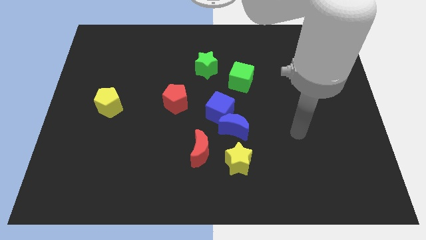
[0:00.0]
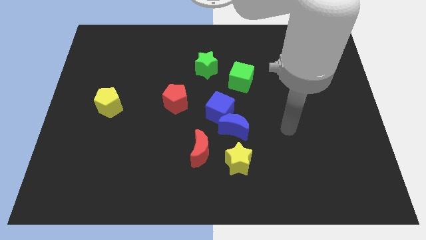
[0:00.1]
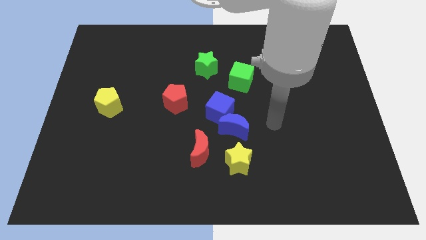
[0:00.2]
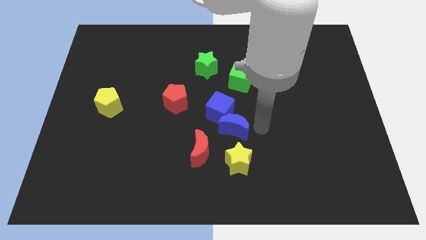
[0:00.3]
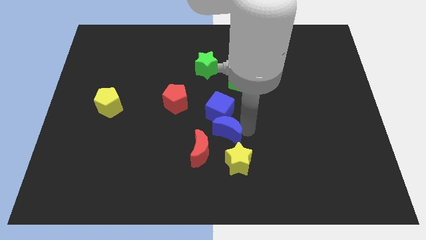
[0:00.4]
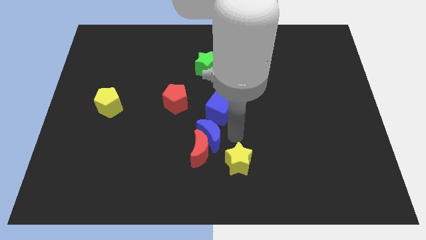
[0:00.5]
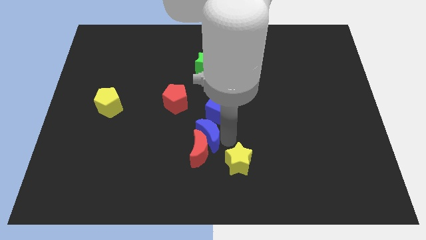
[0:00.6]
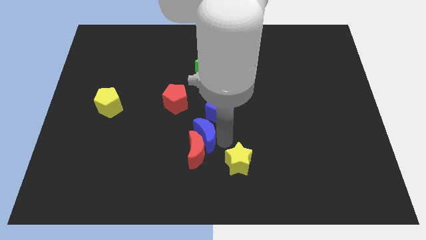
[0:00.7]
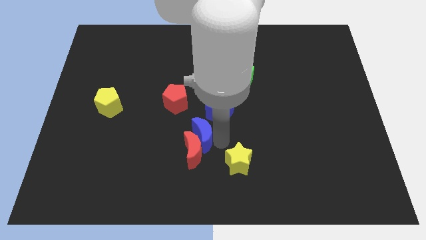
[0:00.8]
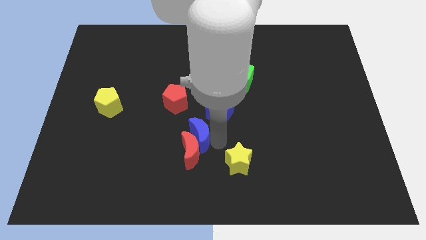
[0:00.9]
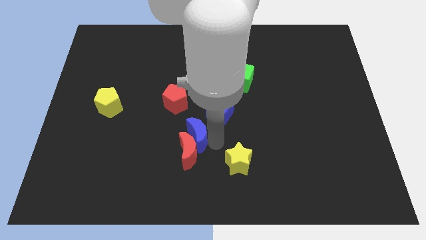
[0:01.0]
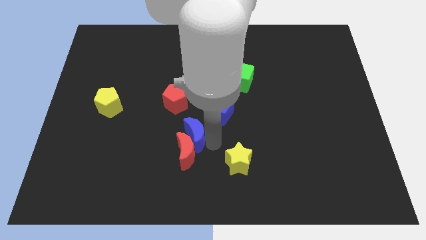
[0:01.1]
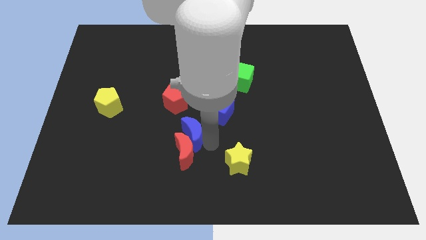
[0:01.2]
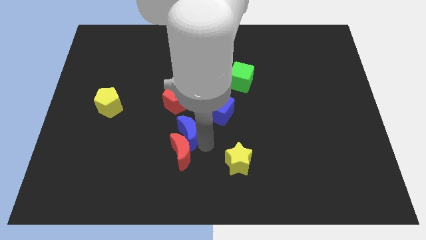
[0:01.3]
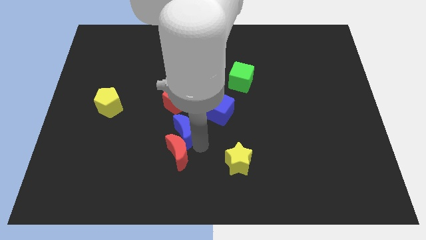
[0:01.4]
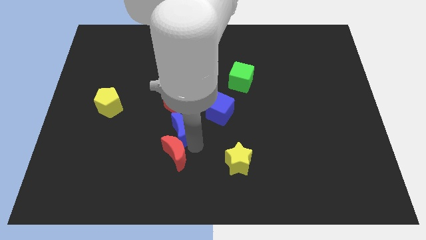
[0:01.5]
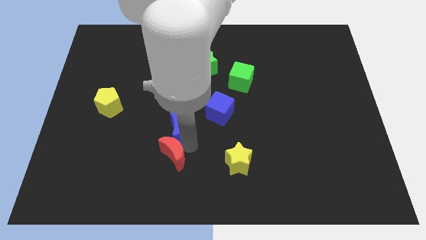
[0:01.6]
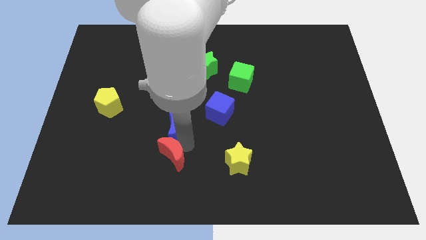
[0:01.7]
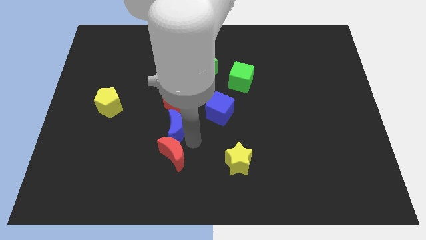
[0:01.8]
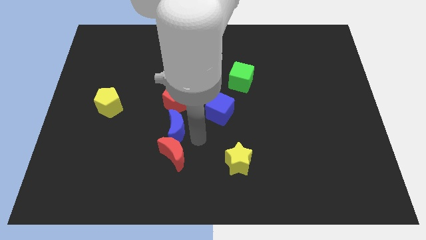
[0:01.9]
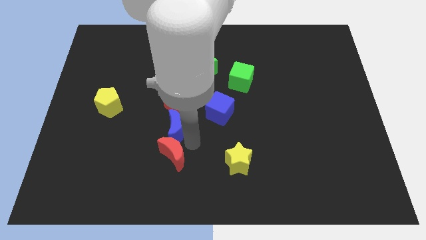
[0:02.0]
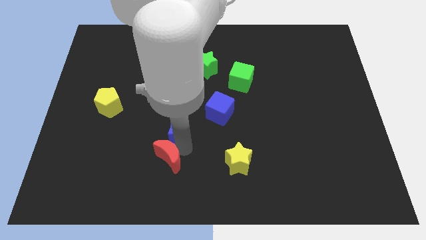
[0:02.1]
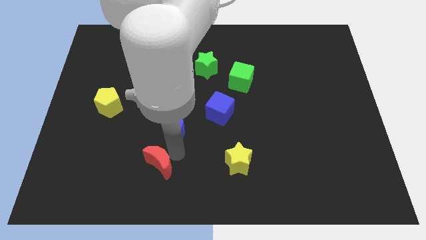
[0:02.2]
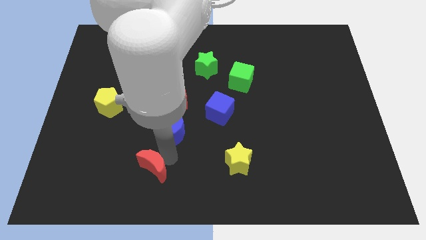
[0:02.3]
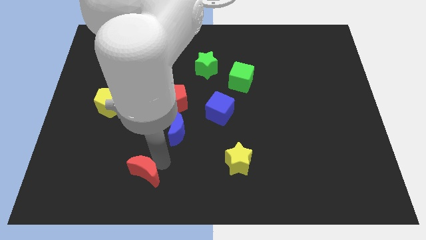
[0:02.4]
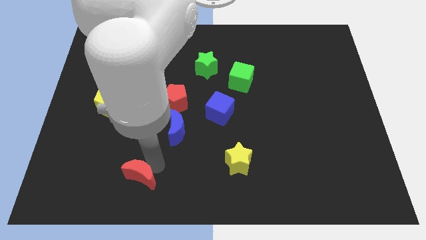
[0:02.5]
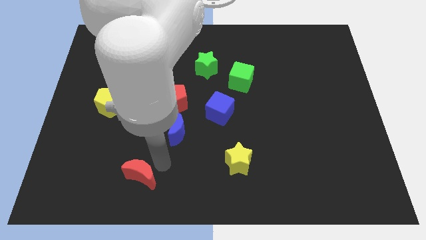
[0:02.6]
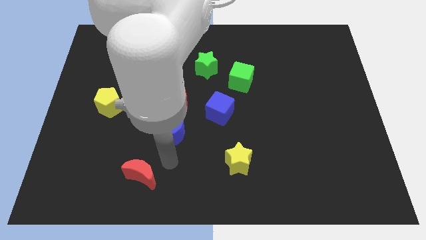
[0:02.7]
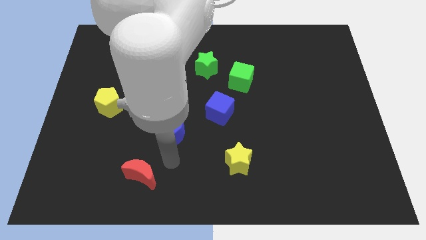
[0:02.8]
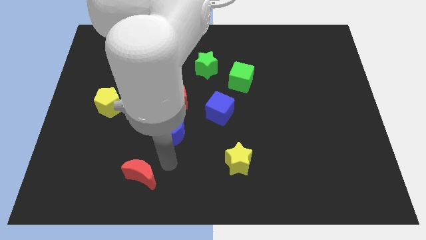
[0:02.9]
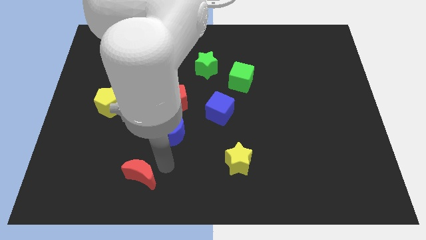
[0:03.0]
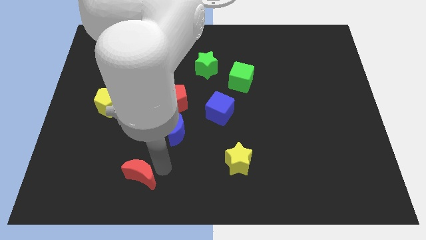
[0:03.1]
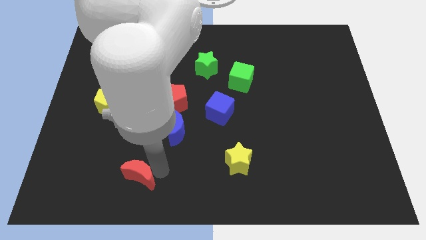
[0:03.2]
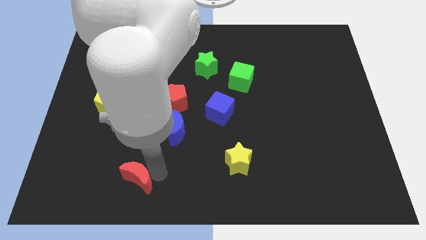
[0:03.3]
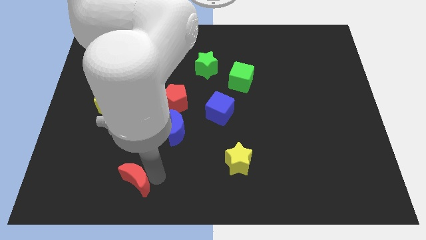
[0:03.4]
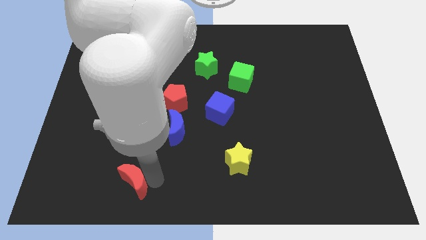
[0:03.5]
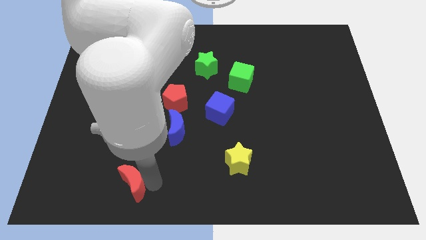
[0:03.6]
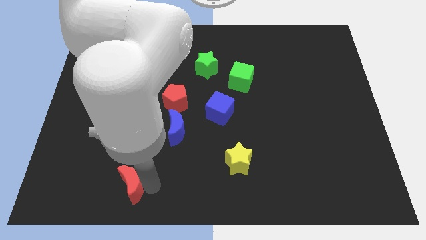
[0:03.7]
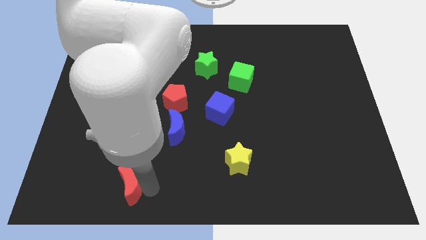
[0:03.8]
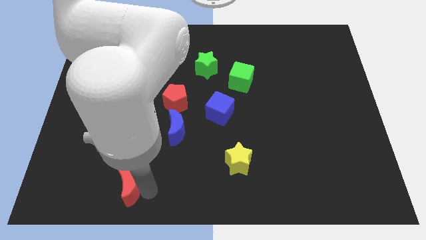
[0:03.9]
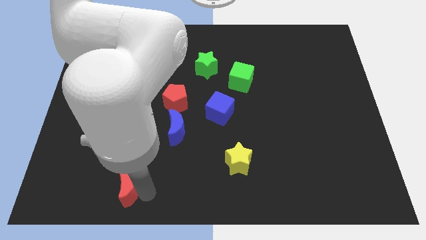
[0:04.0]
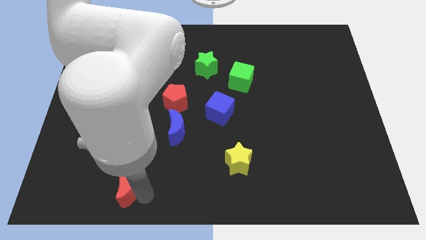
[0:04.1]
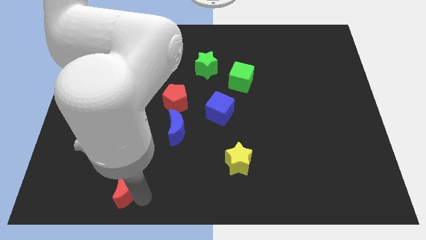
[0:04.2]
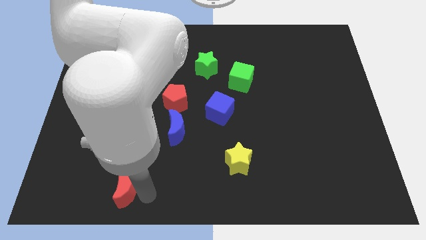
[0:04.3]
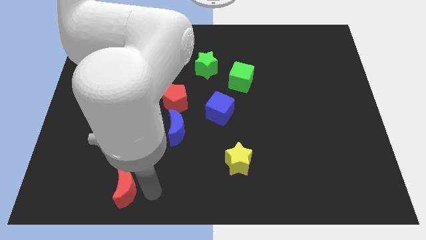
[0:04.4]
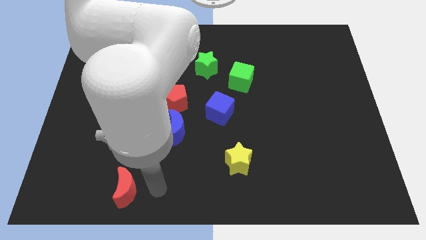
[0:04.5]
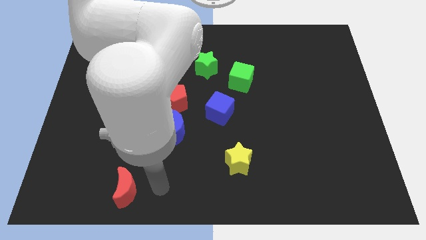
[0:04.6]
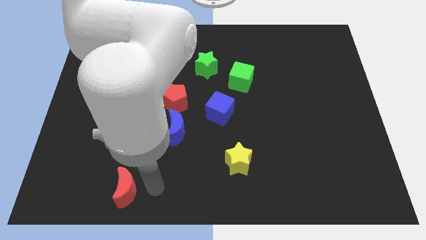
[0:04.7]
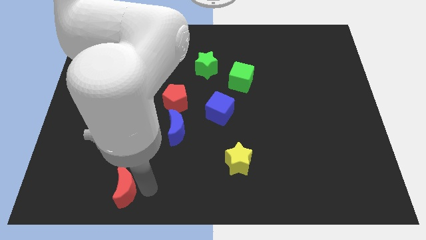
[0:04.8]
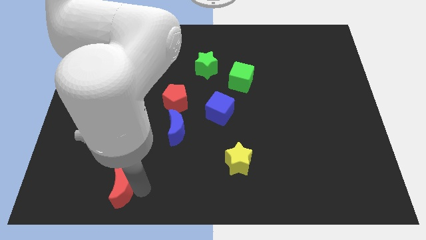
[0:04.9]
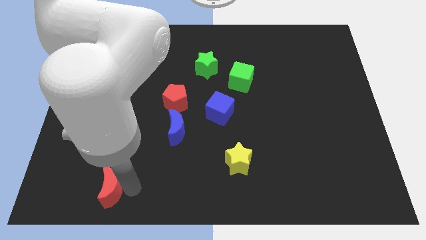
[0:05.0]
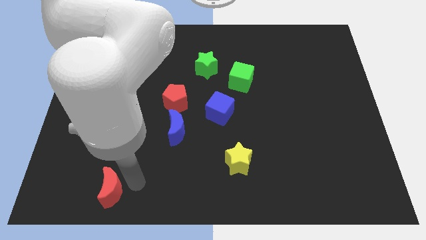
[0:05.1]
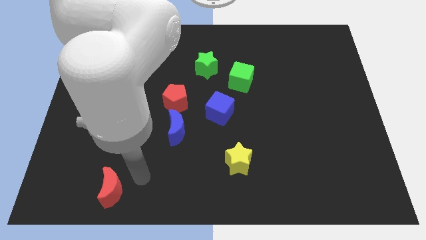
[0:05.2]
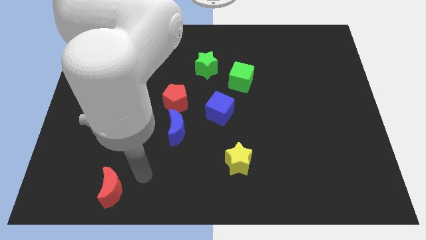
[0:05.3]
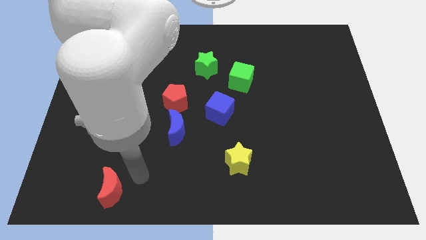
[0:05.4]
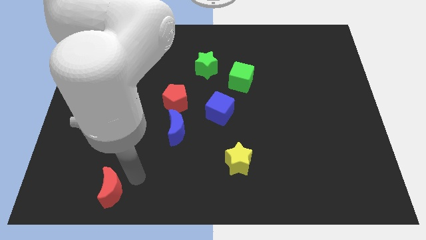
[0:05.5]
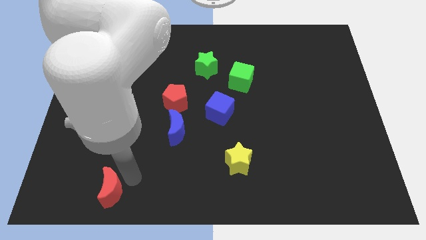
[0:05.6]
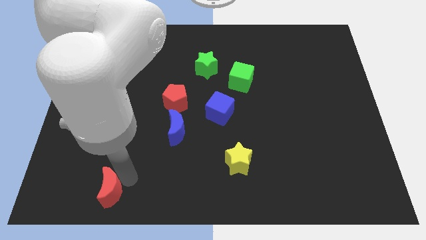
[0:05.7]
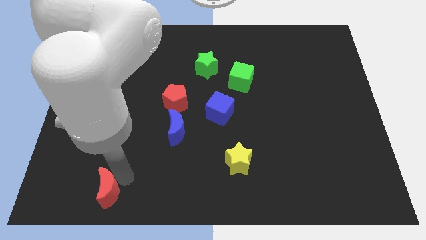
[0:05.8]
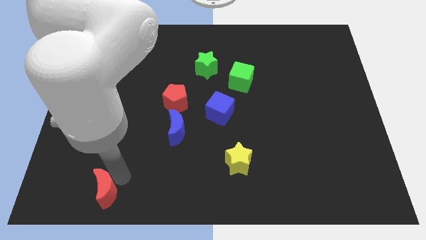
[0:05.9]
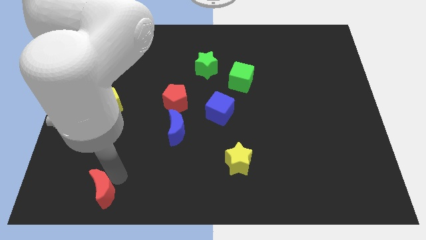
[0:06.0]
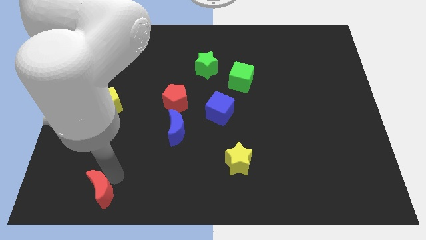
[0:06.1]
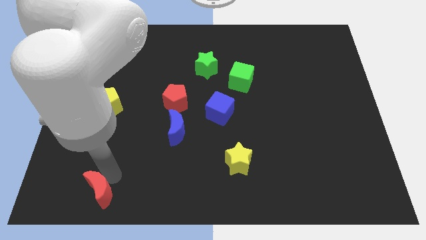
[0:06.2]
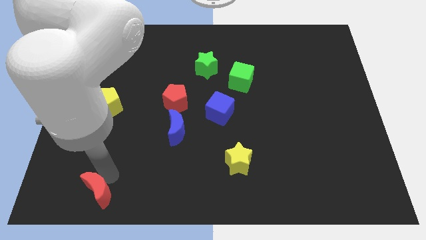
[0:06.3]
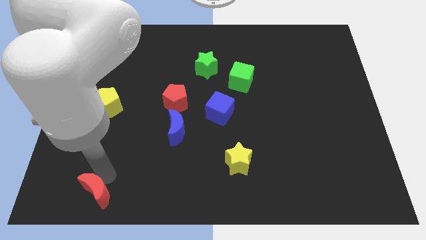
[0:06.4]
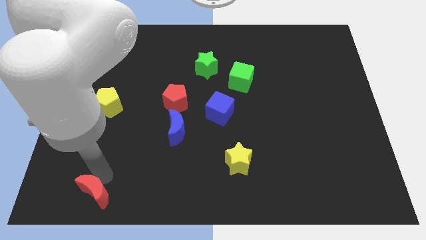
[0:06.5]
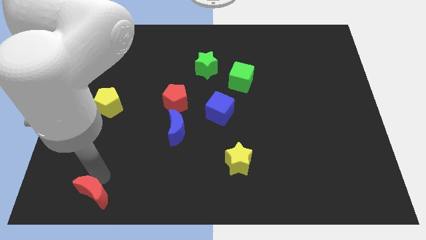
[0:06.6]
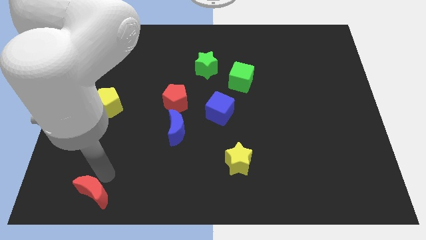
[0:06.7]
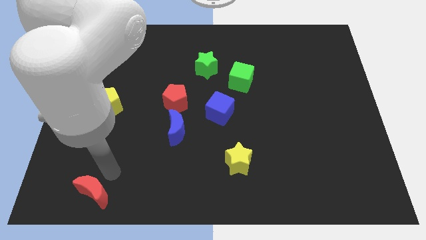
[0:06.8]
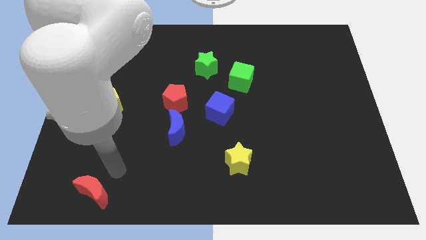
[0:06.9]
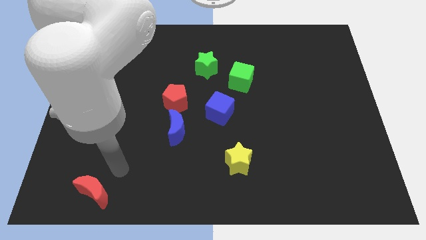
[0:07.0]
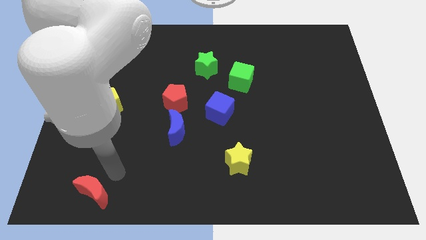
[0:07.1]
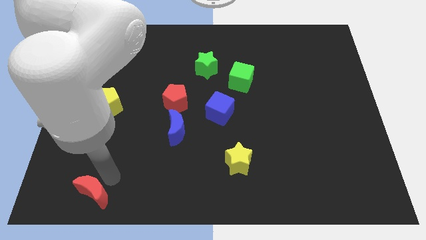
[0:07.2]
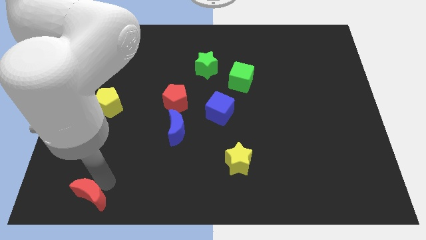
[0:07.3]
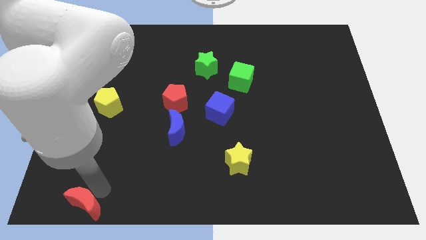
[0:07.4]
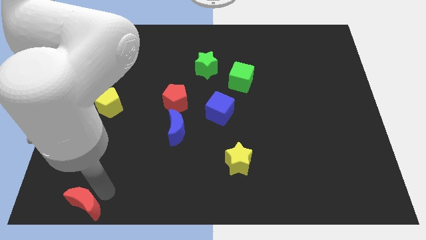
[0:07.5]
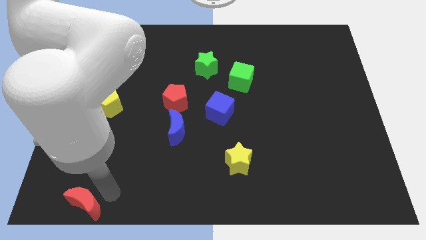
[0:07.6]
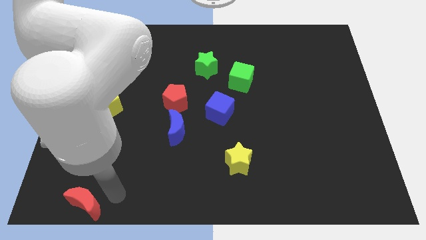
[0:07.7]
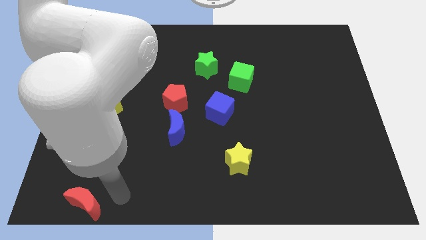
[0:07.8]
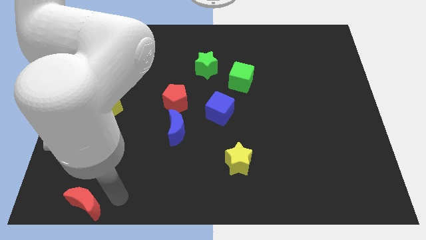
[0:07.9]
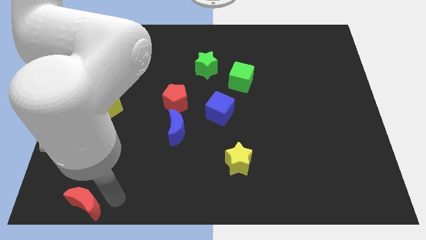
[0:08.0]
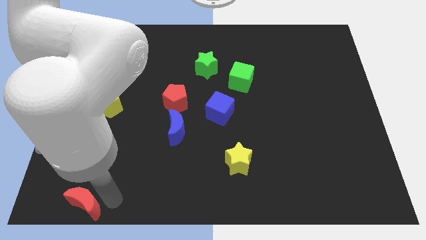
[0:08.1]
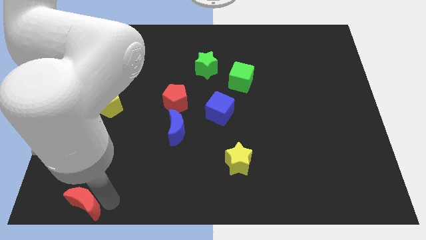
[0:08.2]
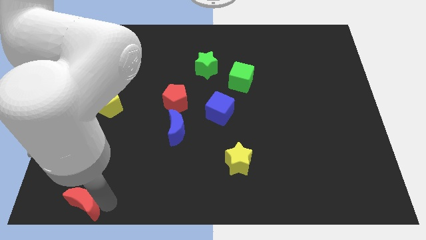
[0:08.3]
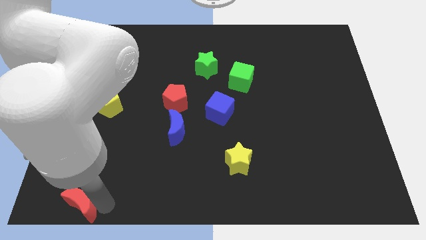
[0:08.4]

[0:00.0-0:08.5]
put the red moon to the bottom left corner
